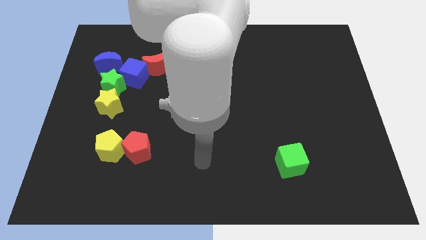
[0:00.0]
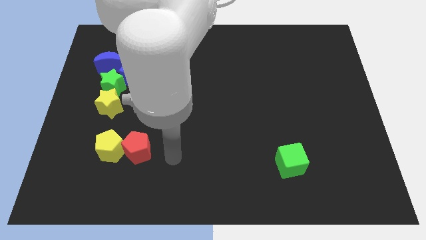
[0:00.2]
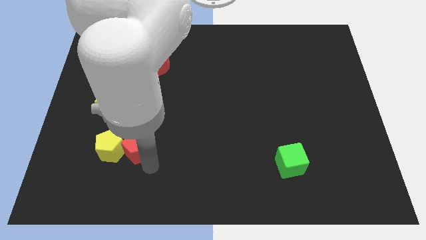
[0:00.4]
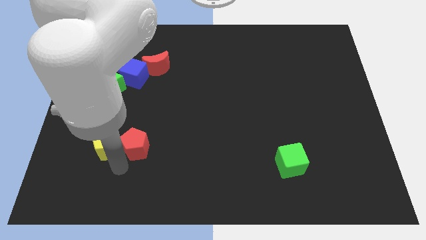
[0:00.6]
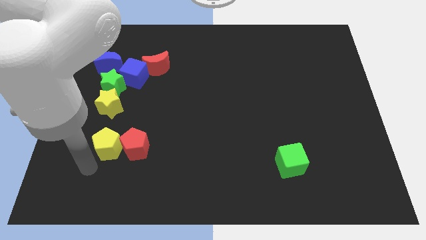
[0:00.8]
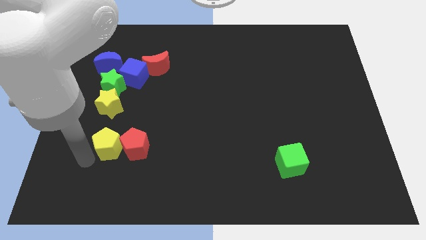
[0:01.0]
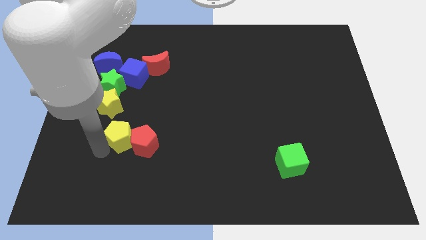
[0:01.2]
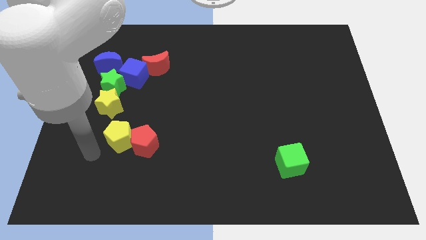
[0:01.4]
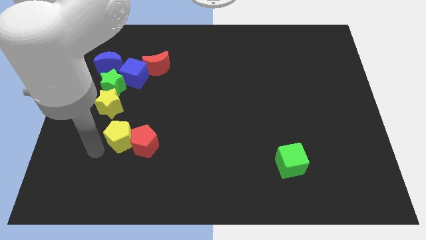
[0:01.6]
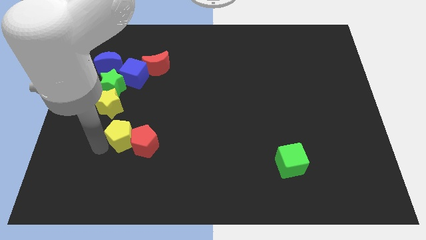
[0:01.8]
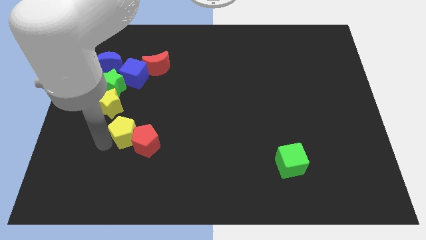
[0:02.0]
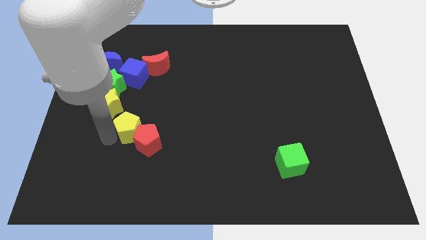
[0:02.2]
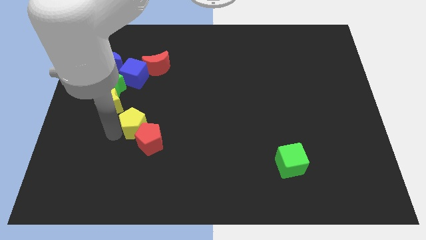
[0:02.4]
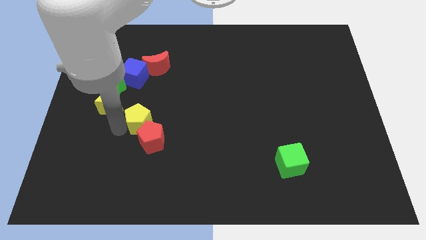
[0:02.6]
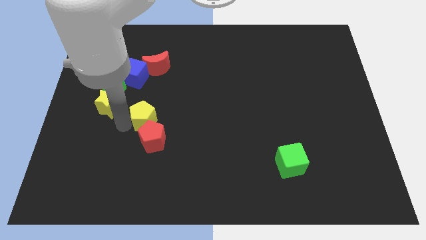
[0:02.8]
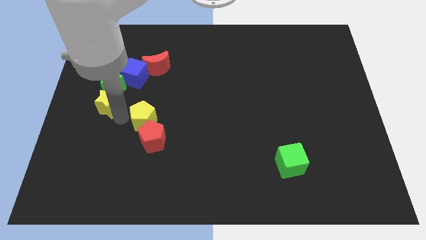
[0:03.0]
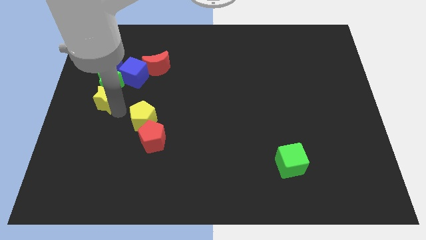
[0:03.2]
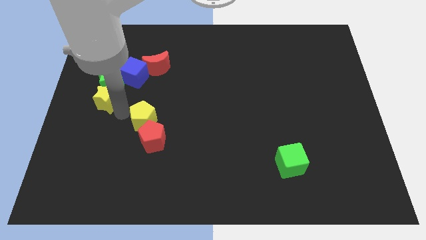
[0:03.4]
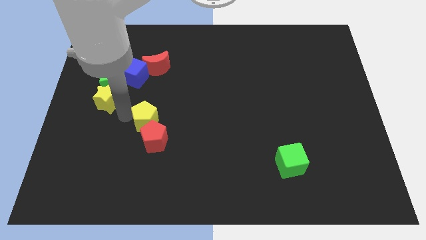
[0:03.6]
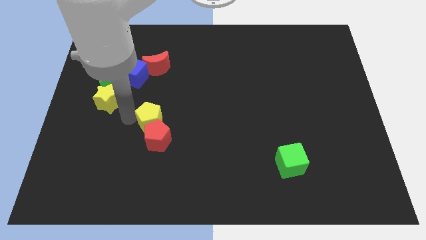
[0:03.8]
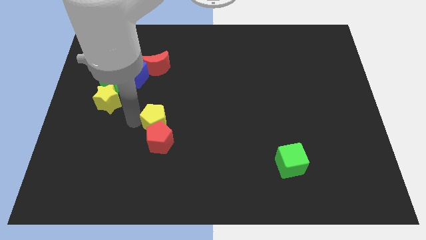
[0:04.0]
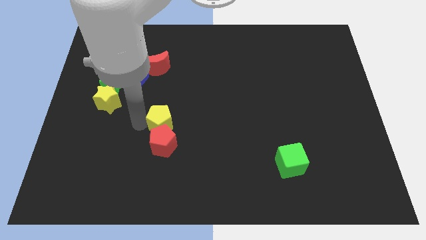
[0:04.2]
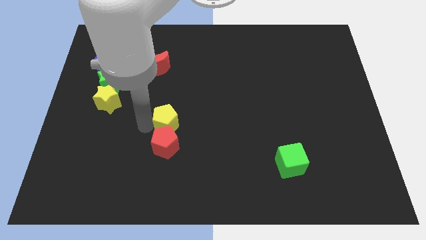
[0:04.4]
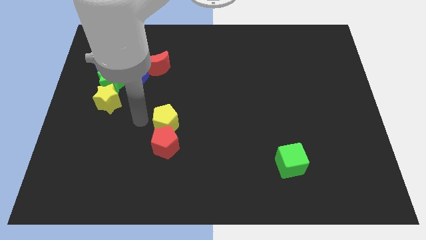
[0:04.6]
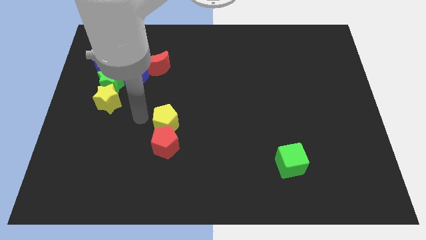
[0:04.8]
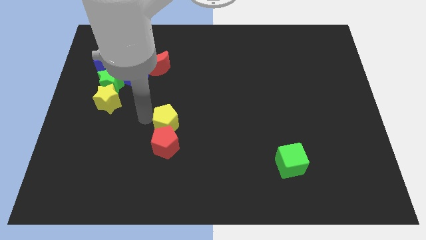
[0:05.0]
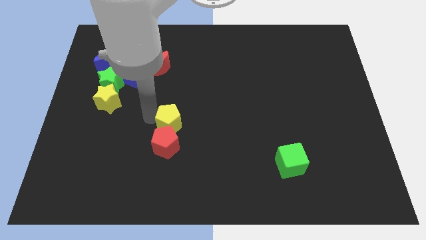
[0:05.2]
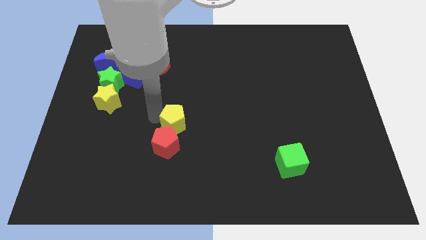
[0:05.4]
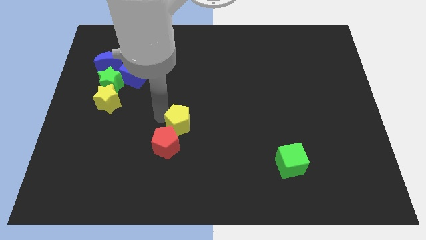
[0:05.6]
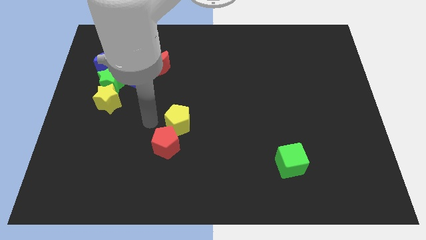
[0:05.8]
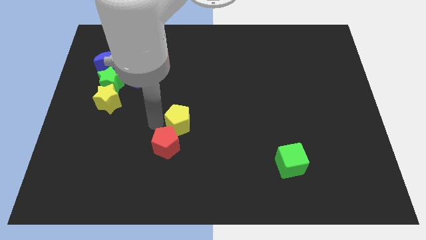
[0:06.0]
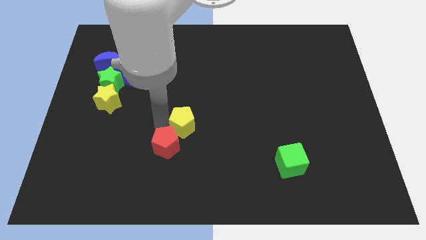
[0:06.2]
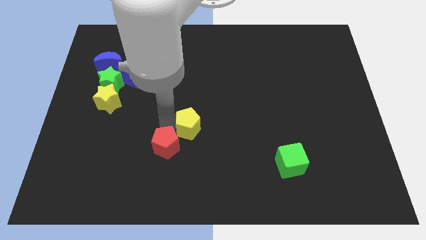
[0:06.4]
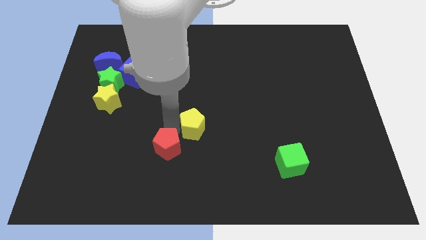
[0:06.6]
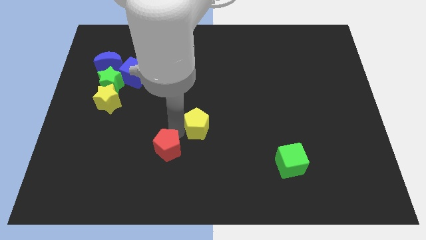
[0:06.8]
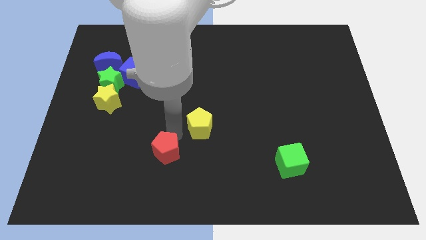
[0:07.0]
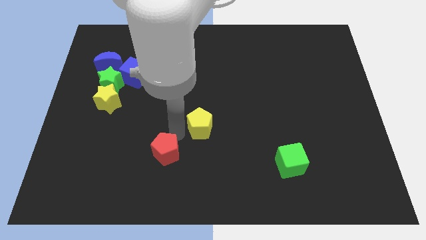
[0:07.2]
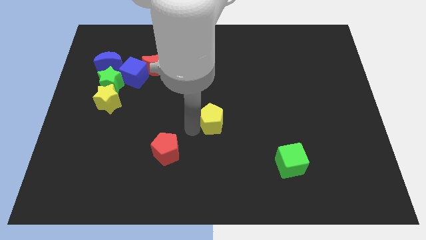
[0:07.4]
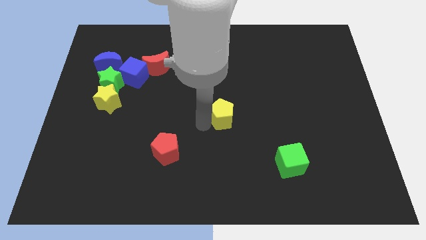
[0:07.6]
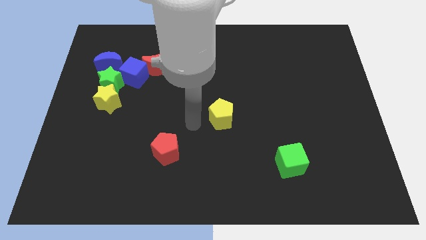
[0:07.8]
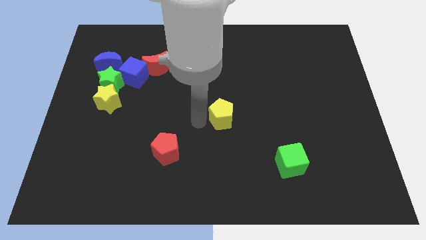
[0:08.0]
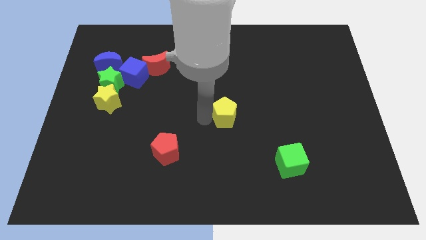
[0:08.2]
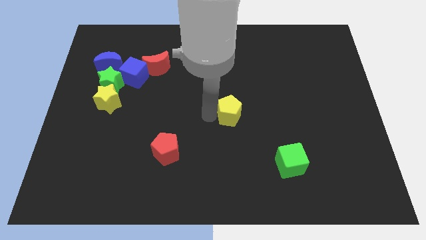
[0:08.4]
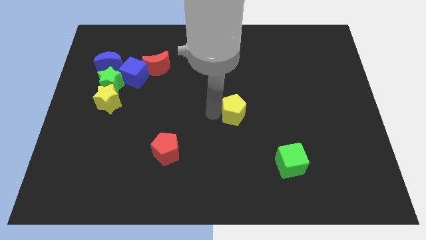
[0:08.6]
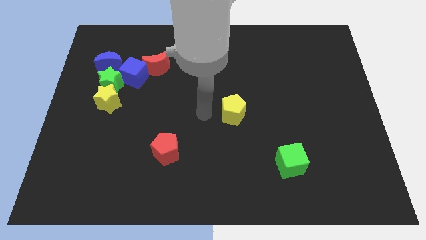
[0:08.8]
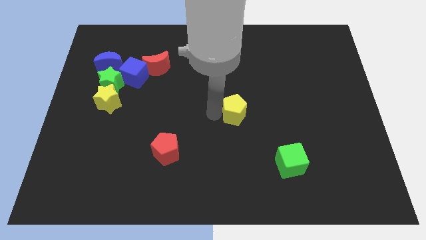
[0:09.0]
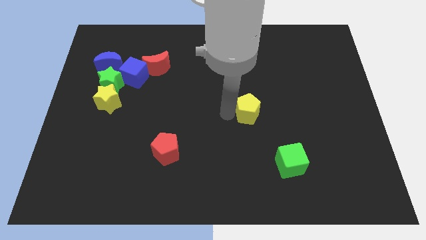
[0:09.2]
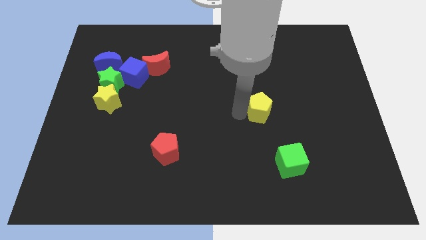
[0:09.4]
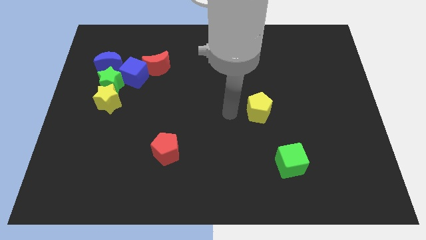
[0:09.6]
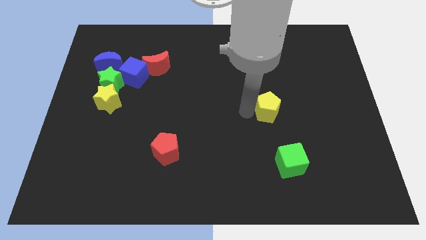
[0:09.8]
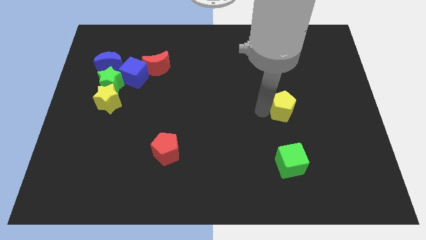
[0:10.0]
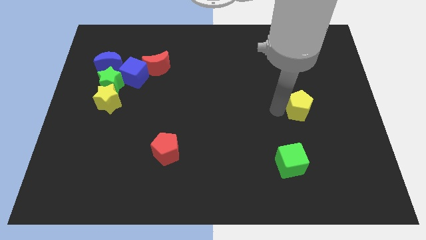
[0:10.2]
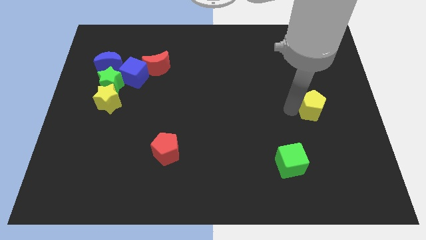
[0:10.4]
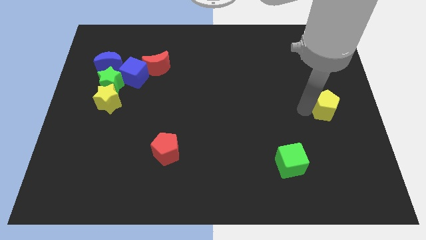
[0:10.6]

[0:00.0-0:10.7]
push the yellow pentagon to the right side

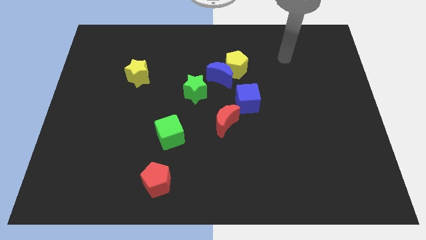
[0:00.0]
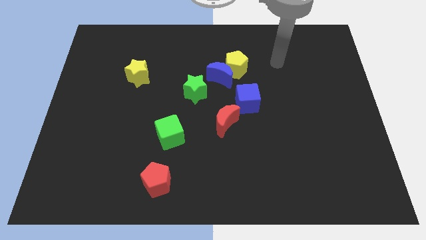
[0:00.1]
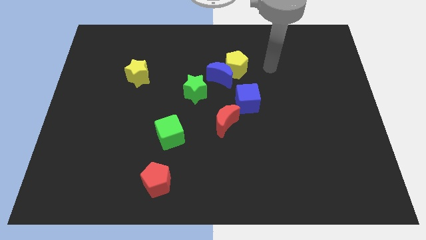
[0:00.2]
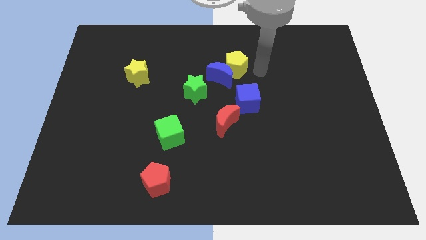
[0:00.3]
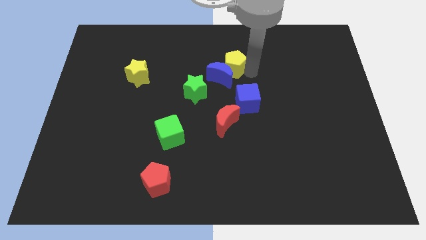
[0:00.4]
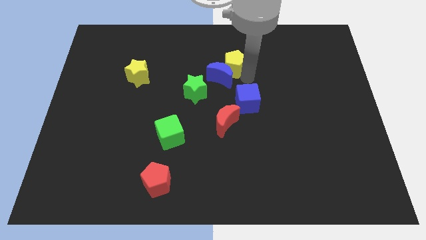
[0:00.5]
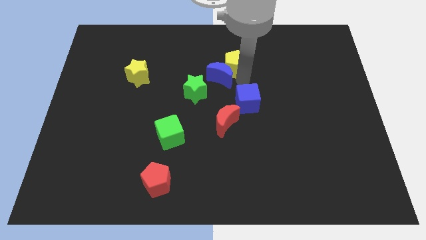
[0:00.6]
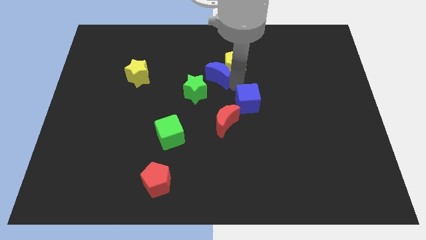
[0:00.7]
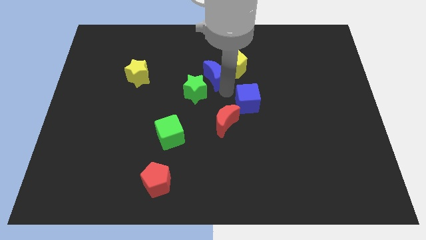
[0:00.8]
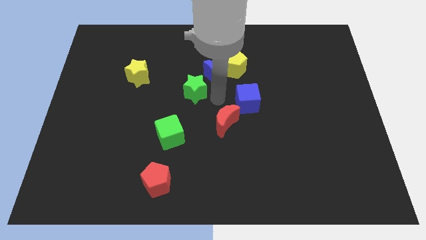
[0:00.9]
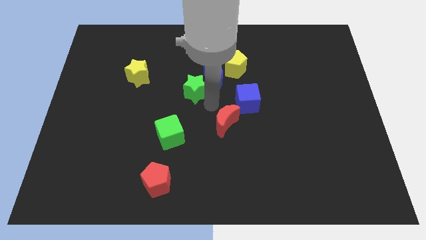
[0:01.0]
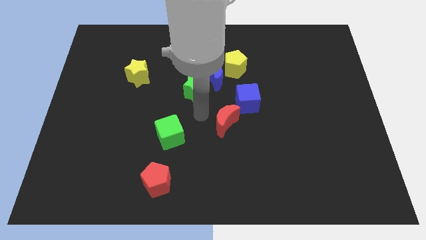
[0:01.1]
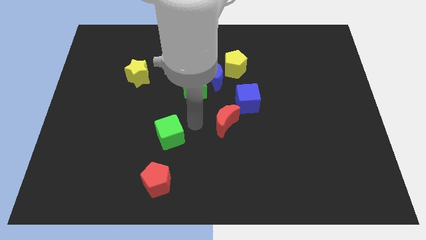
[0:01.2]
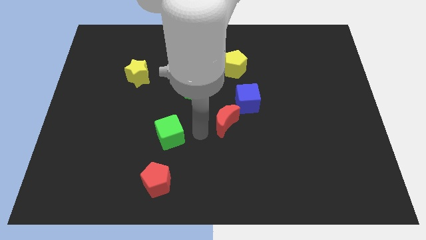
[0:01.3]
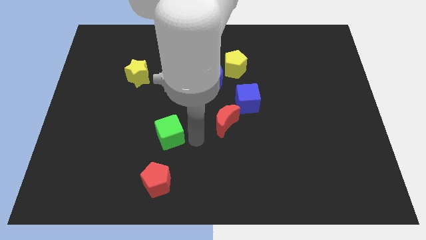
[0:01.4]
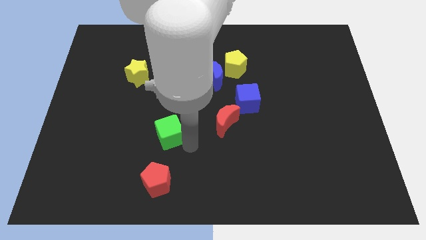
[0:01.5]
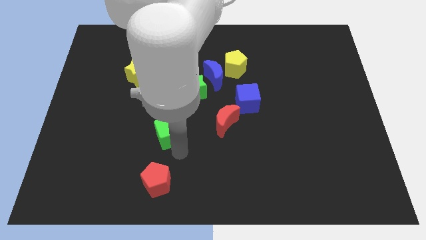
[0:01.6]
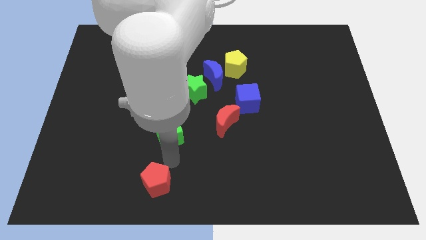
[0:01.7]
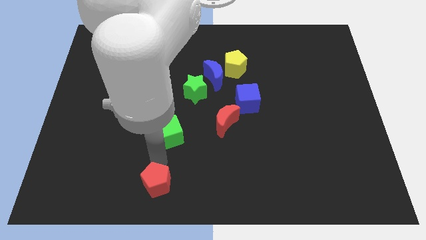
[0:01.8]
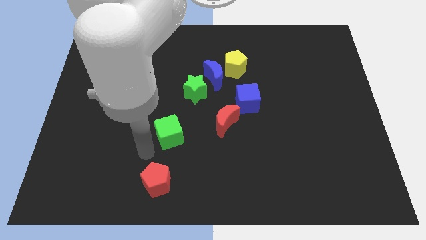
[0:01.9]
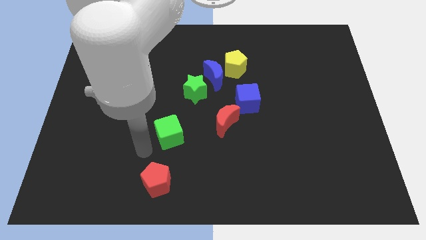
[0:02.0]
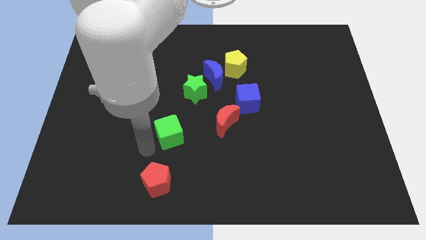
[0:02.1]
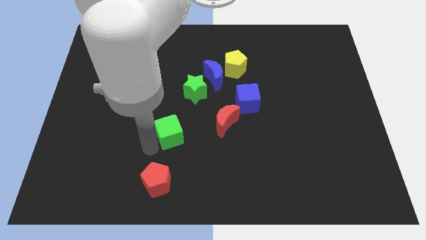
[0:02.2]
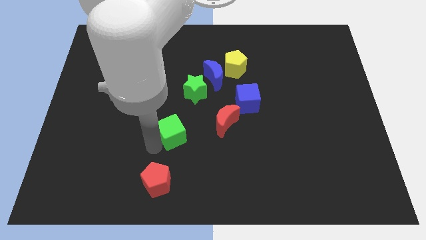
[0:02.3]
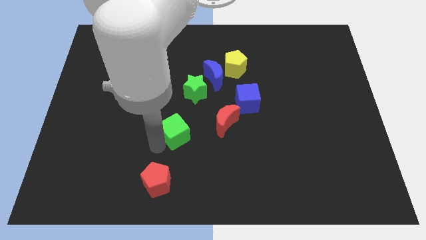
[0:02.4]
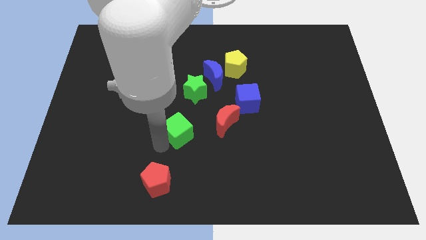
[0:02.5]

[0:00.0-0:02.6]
slide the green cube to the center of the board
